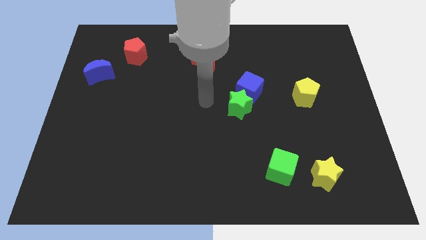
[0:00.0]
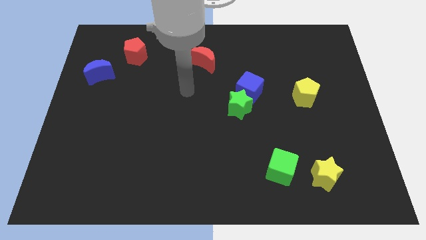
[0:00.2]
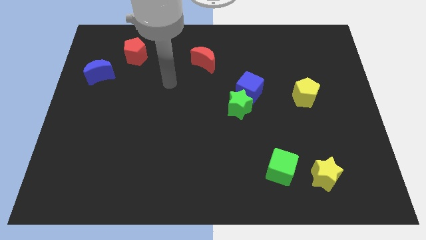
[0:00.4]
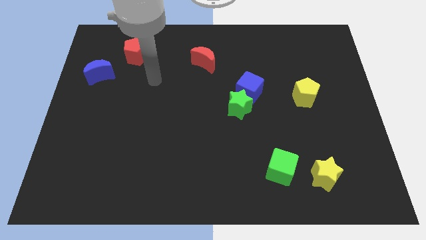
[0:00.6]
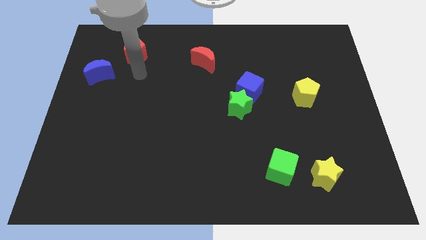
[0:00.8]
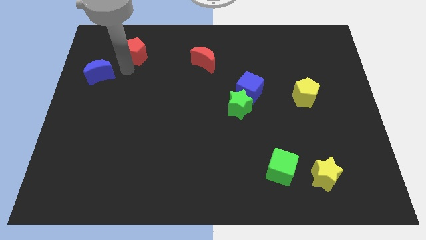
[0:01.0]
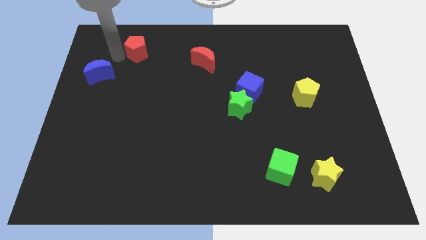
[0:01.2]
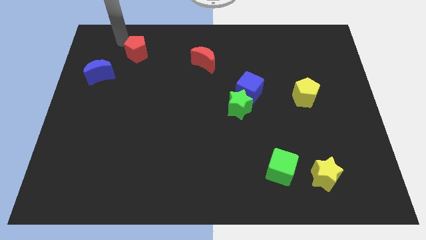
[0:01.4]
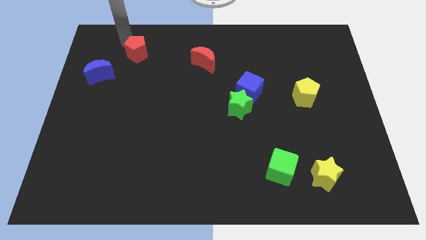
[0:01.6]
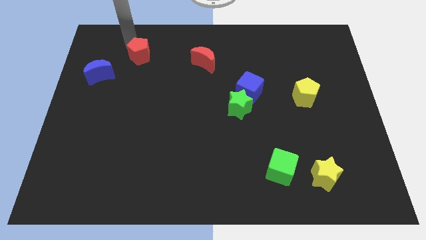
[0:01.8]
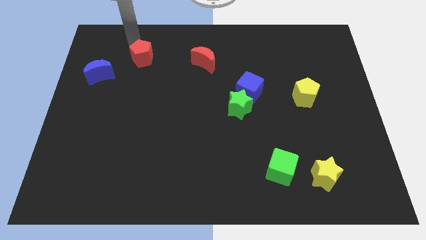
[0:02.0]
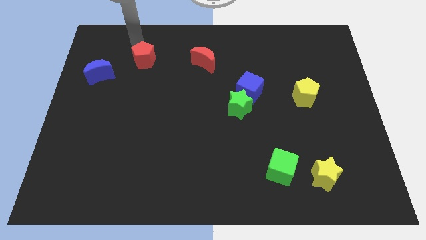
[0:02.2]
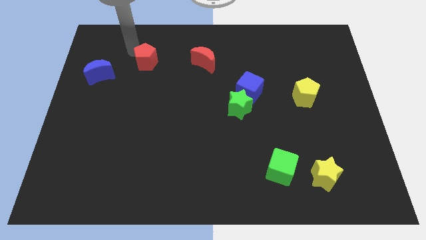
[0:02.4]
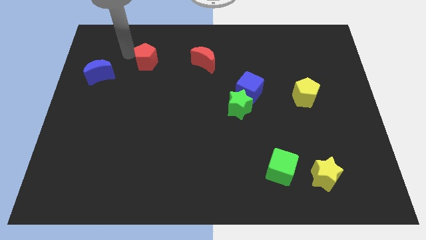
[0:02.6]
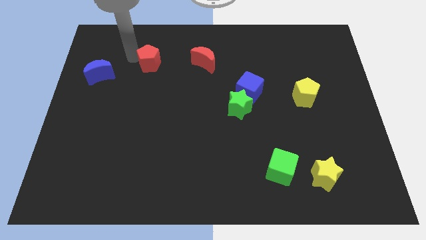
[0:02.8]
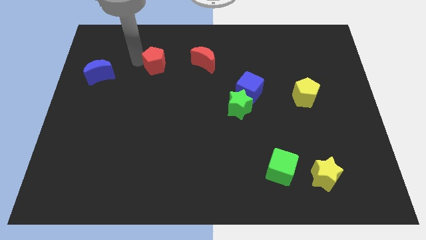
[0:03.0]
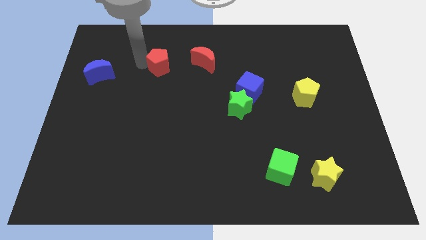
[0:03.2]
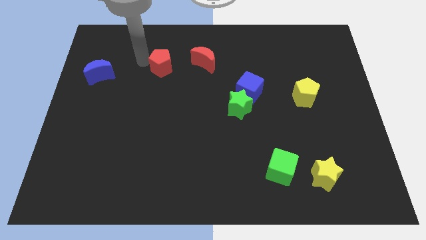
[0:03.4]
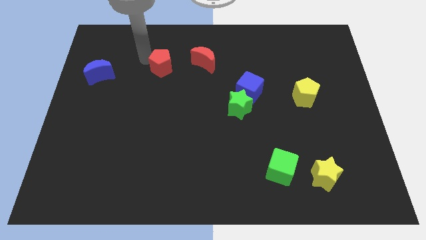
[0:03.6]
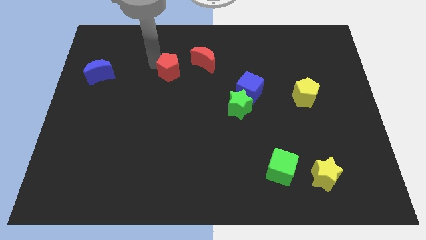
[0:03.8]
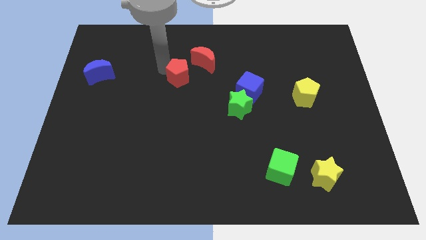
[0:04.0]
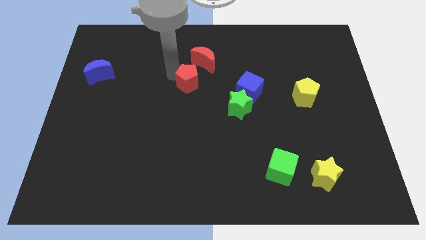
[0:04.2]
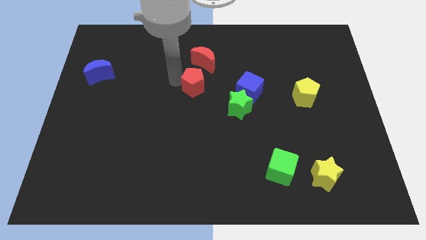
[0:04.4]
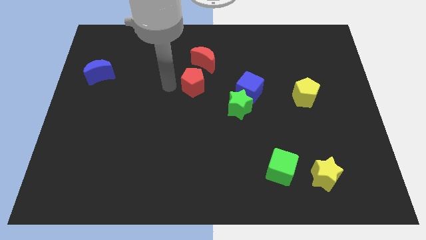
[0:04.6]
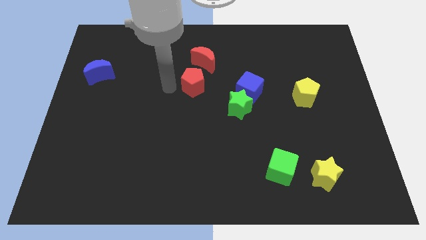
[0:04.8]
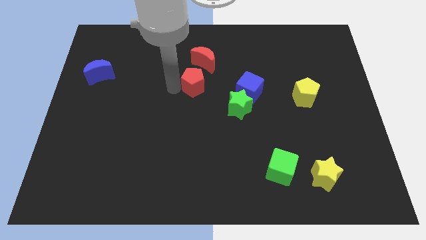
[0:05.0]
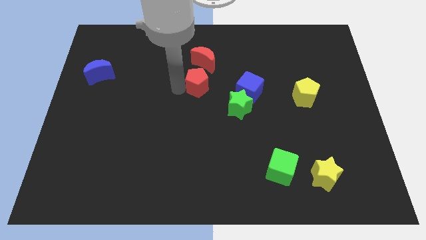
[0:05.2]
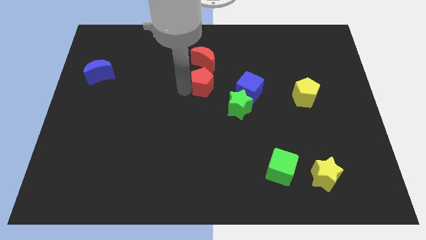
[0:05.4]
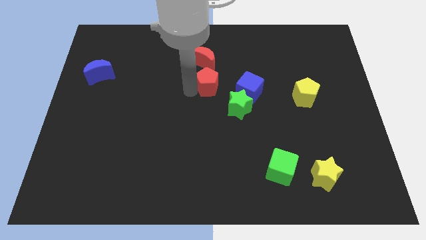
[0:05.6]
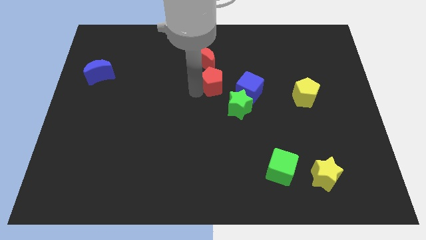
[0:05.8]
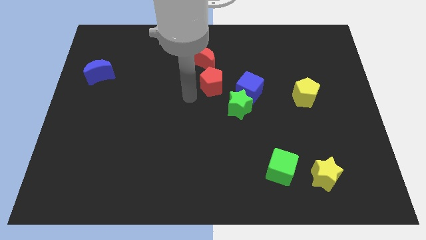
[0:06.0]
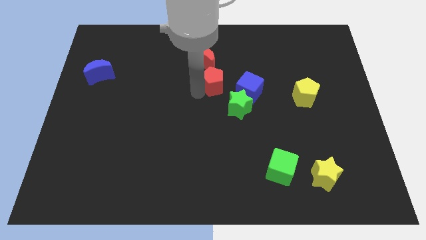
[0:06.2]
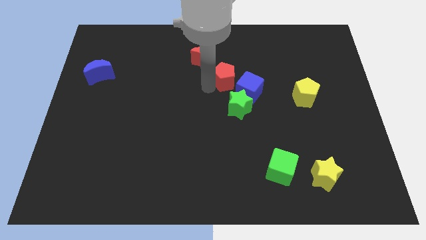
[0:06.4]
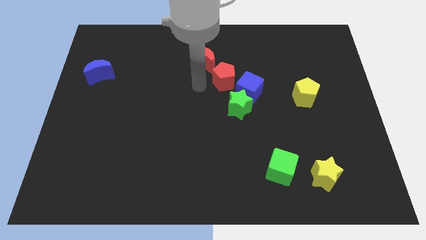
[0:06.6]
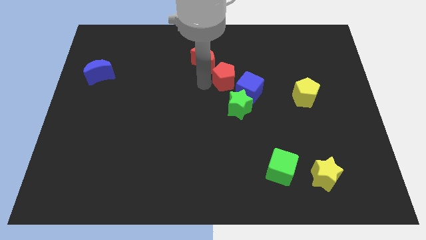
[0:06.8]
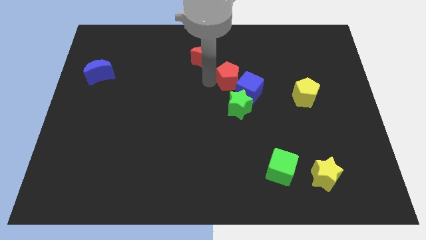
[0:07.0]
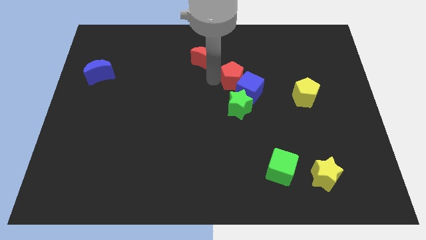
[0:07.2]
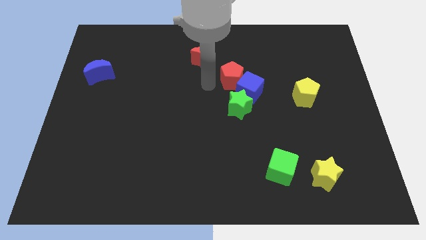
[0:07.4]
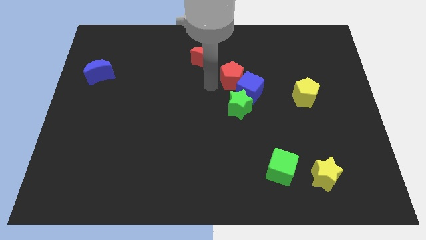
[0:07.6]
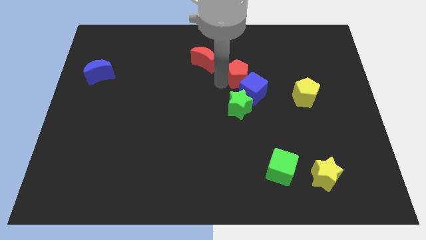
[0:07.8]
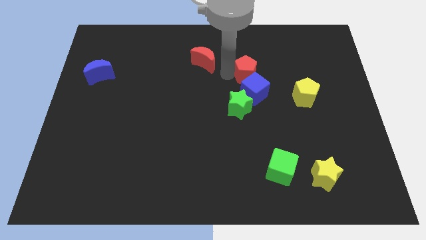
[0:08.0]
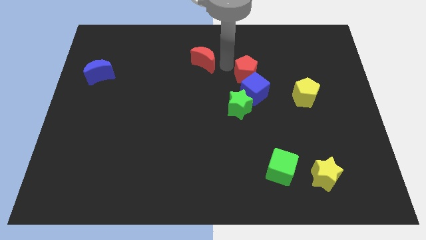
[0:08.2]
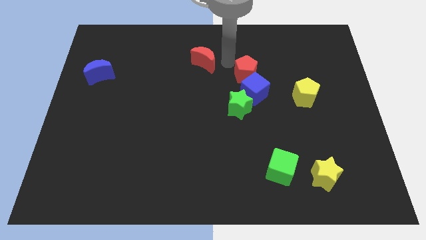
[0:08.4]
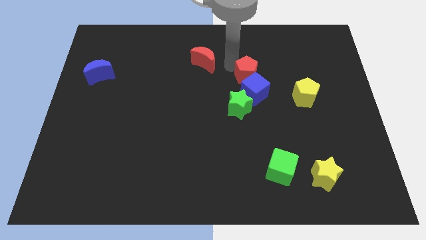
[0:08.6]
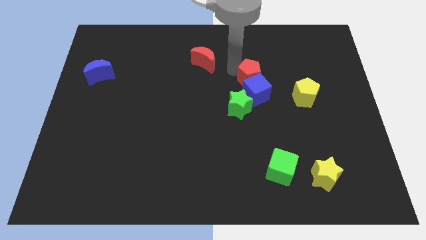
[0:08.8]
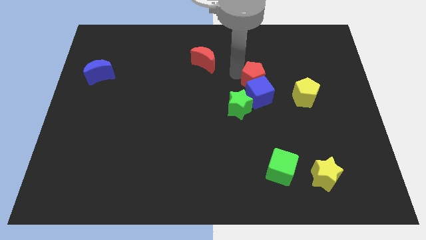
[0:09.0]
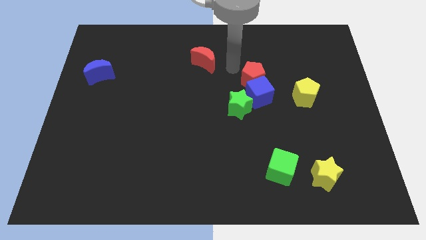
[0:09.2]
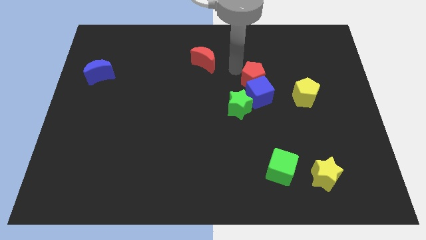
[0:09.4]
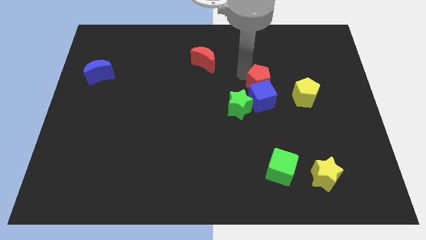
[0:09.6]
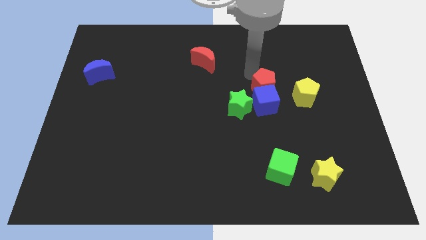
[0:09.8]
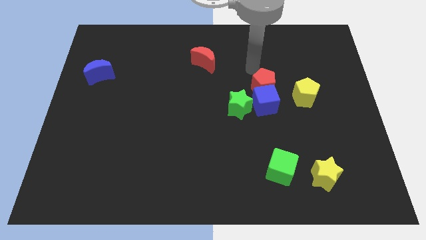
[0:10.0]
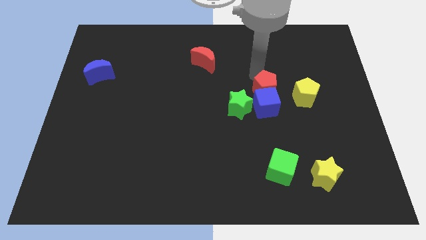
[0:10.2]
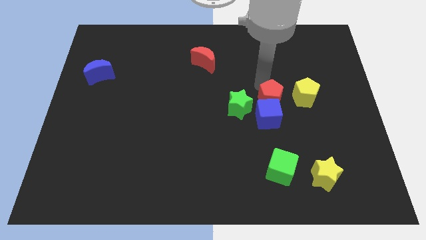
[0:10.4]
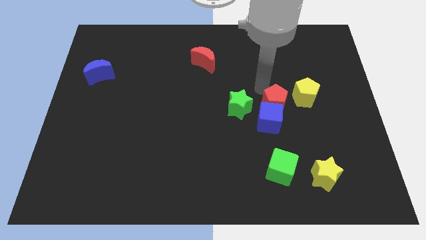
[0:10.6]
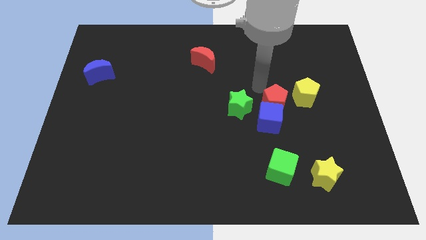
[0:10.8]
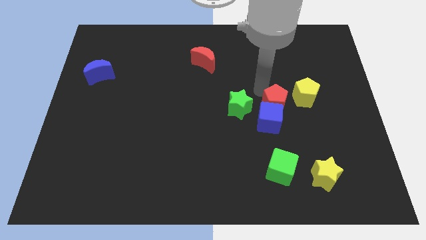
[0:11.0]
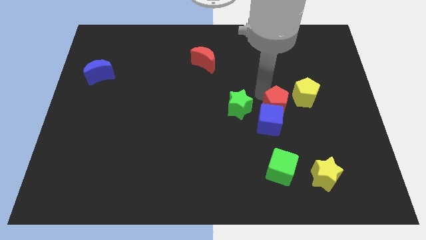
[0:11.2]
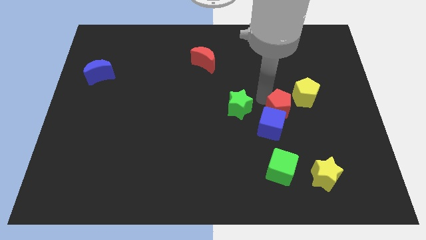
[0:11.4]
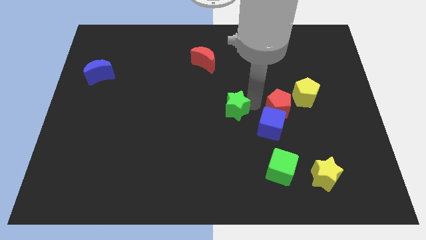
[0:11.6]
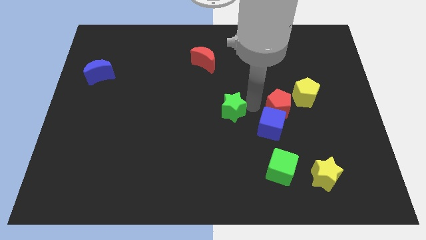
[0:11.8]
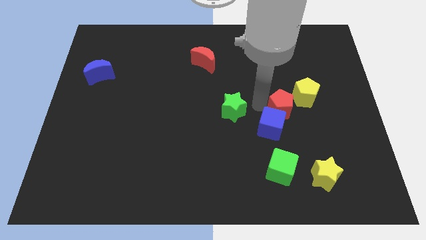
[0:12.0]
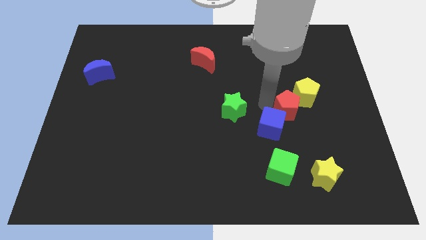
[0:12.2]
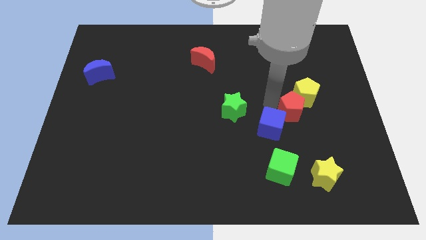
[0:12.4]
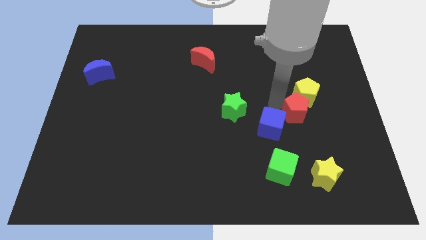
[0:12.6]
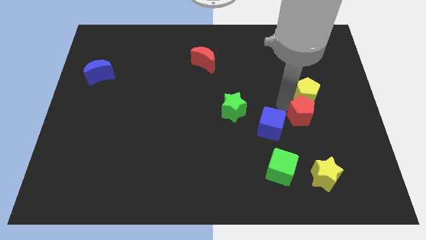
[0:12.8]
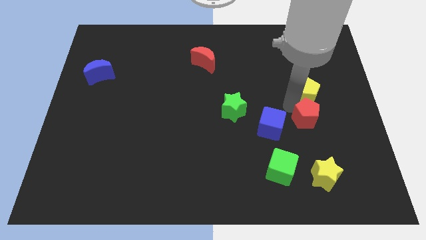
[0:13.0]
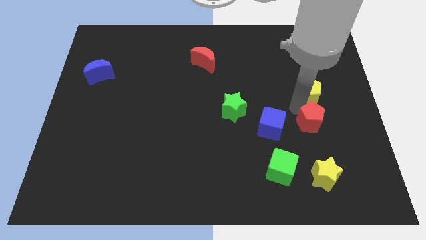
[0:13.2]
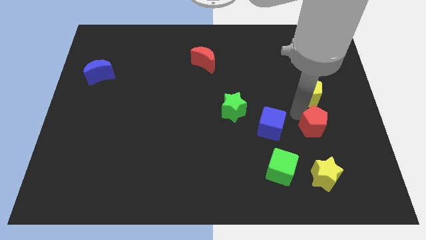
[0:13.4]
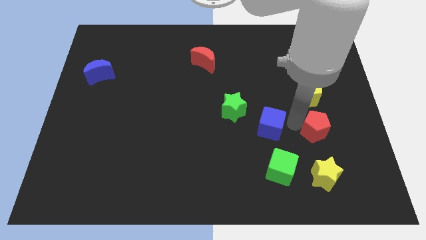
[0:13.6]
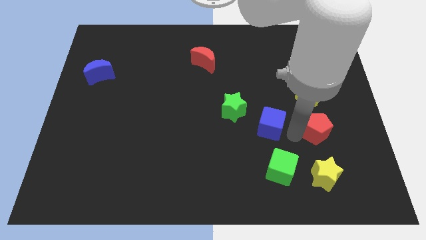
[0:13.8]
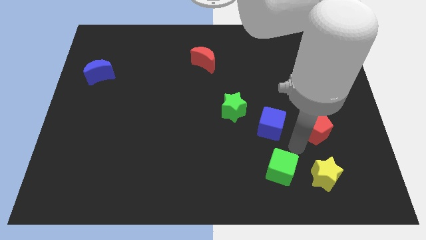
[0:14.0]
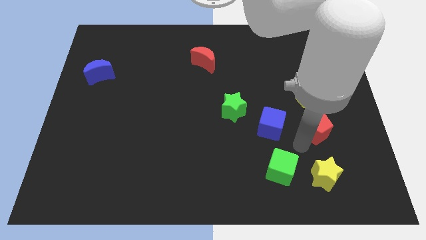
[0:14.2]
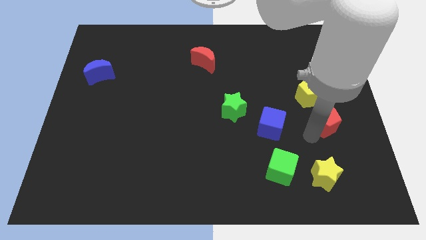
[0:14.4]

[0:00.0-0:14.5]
push the red pentagon to the bottom right side of the yellow pentagon
